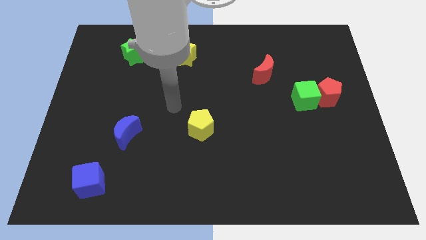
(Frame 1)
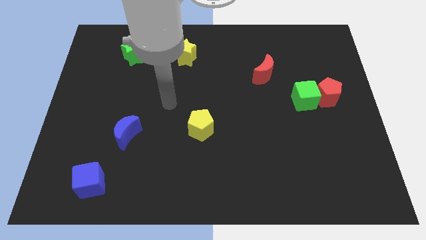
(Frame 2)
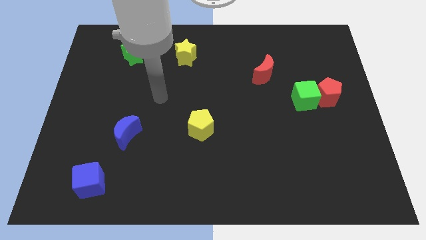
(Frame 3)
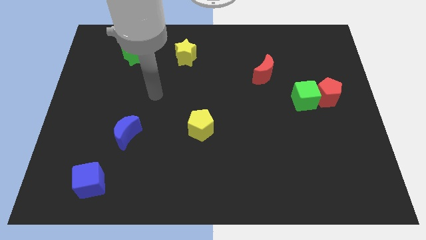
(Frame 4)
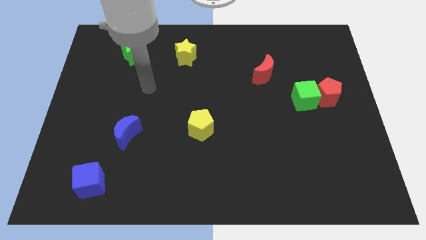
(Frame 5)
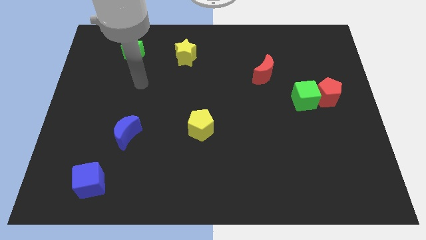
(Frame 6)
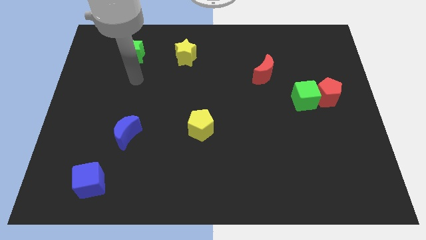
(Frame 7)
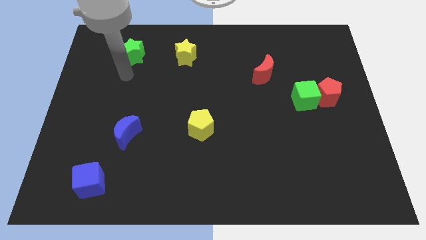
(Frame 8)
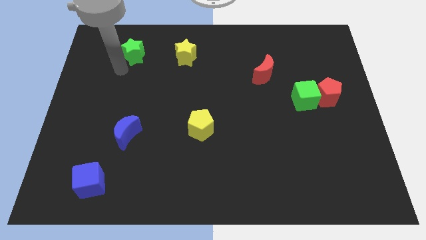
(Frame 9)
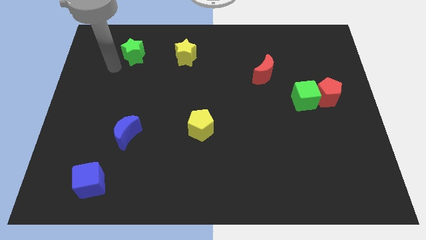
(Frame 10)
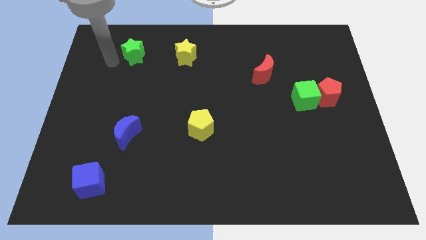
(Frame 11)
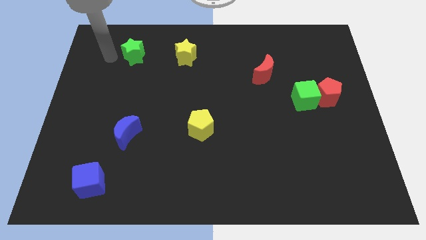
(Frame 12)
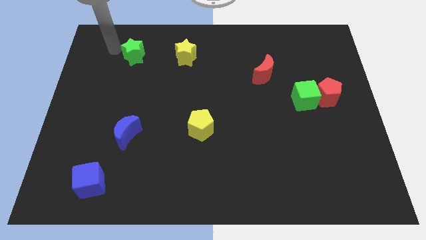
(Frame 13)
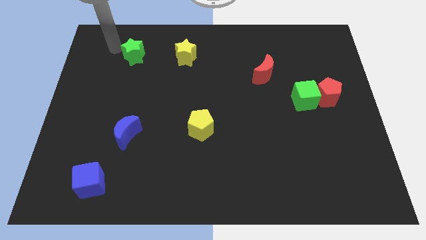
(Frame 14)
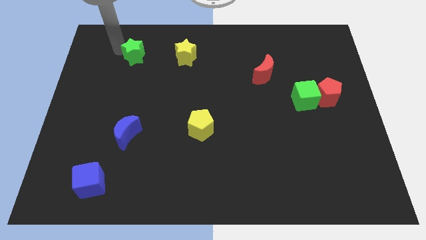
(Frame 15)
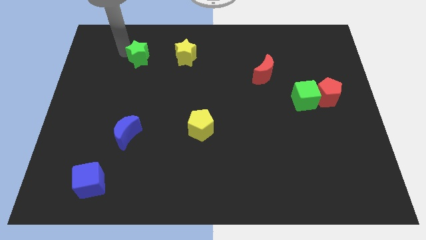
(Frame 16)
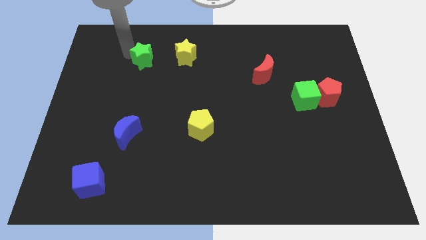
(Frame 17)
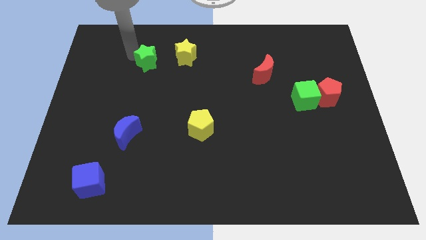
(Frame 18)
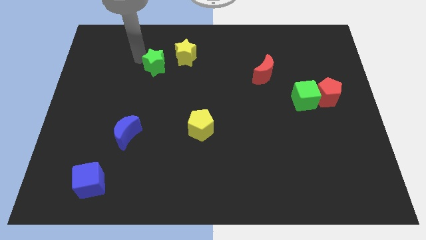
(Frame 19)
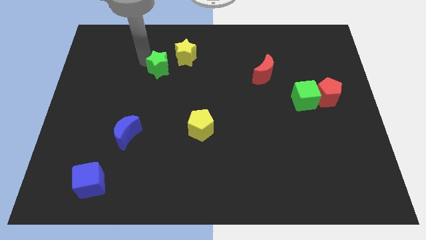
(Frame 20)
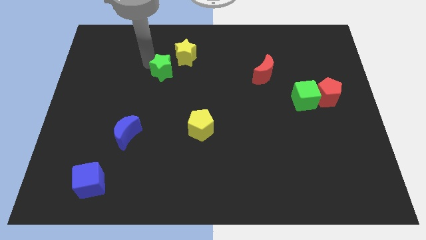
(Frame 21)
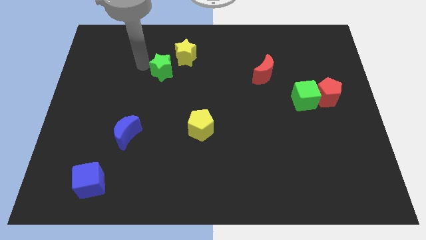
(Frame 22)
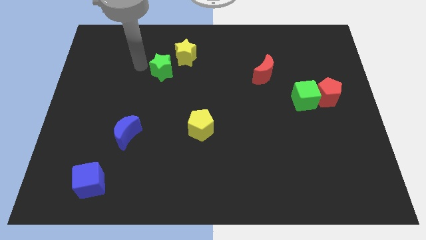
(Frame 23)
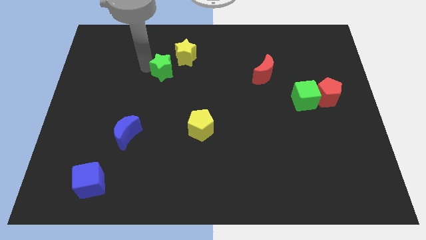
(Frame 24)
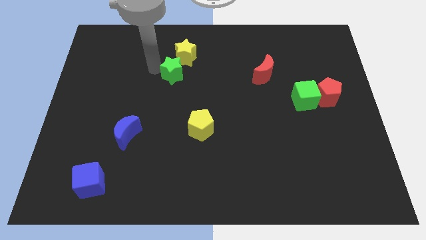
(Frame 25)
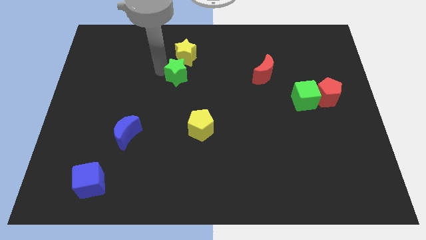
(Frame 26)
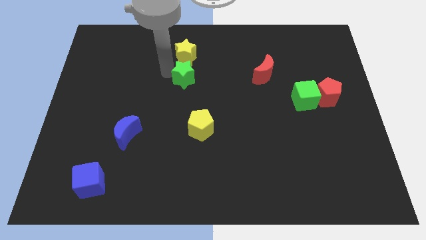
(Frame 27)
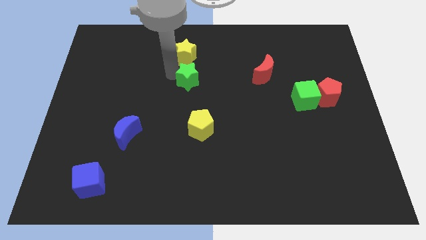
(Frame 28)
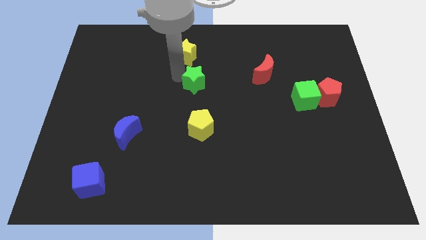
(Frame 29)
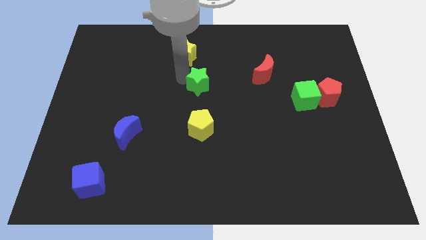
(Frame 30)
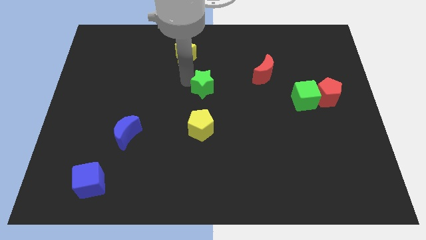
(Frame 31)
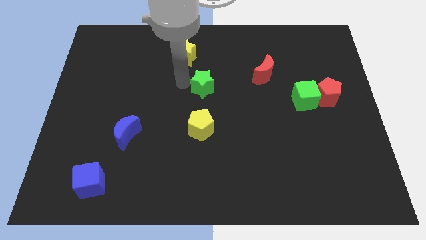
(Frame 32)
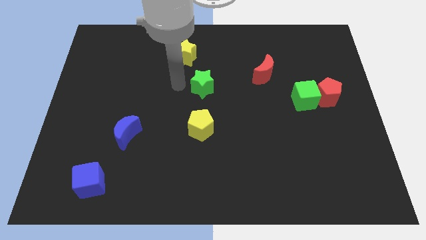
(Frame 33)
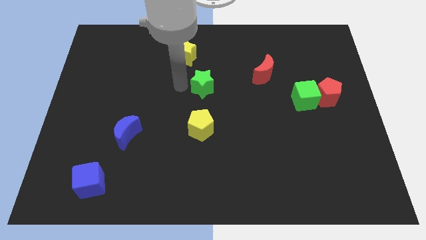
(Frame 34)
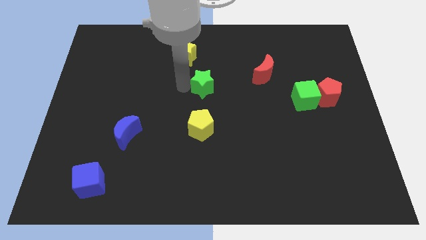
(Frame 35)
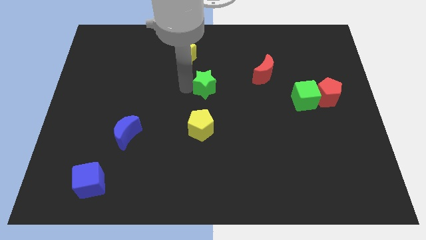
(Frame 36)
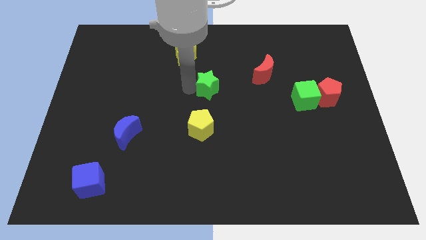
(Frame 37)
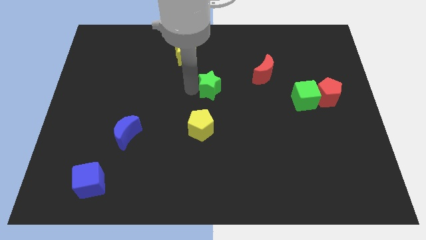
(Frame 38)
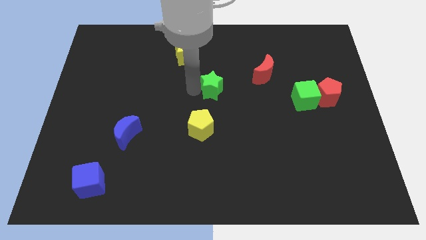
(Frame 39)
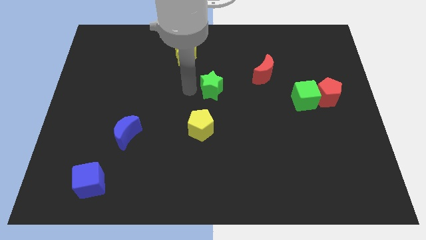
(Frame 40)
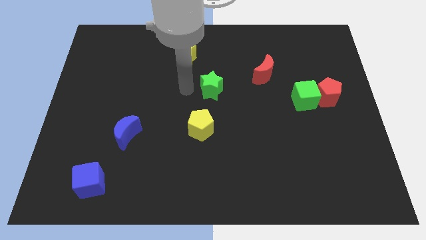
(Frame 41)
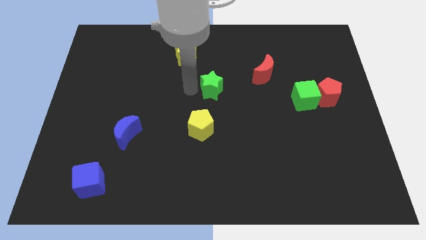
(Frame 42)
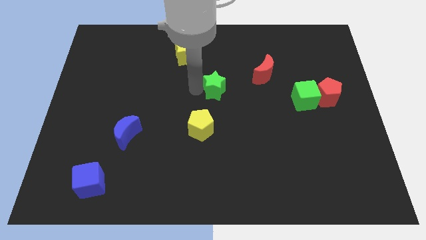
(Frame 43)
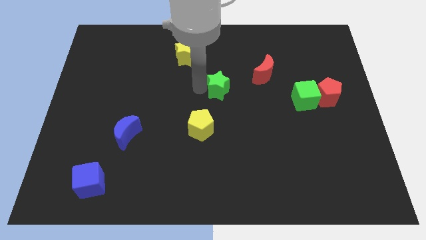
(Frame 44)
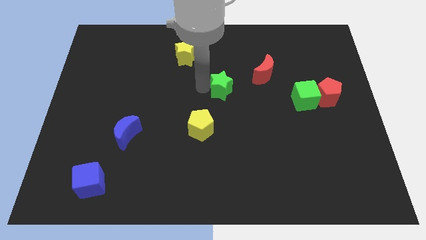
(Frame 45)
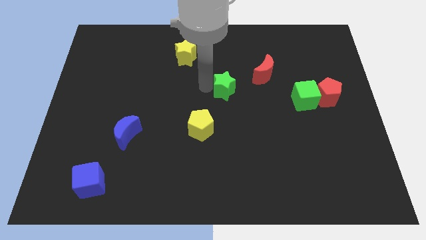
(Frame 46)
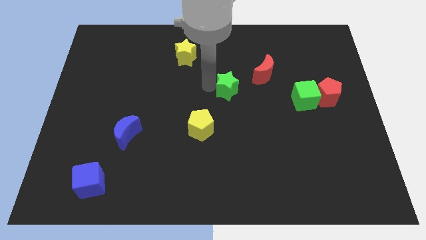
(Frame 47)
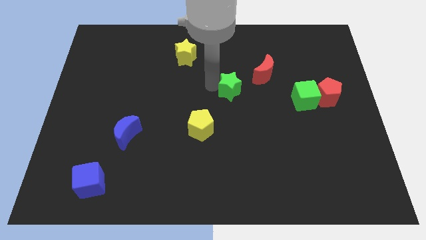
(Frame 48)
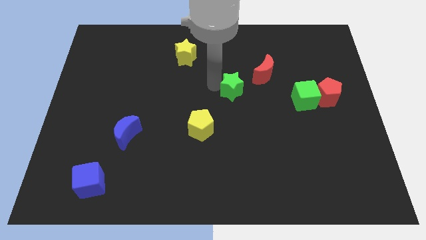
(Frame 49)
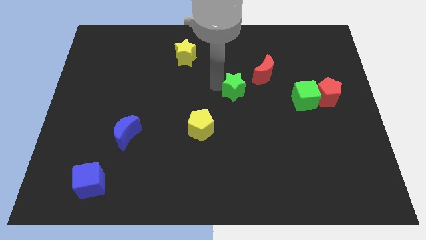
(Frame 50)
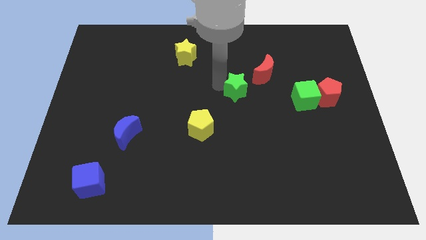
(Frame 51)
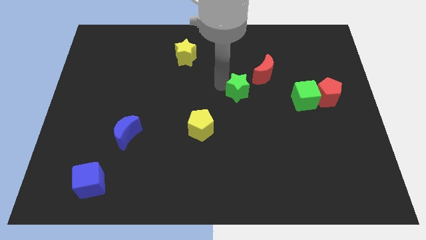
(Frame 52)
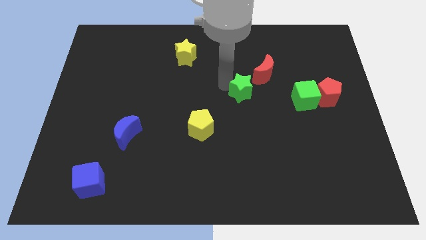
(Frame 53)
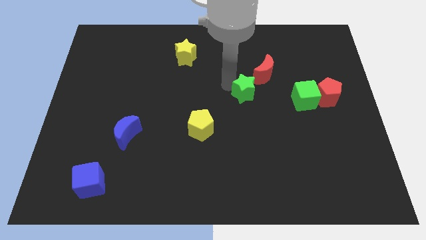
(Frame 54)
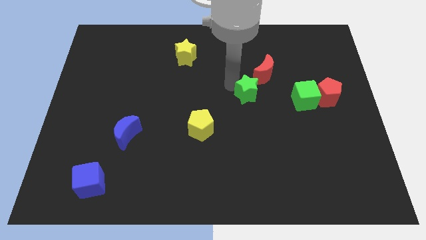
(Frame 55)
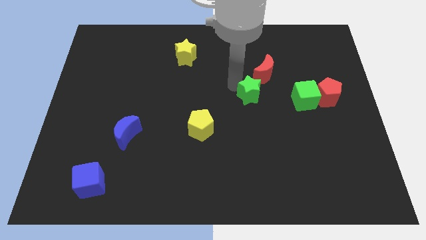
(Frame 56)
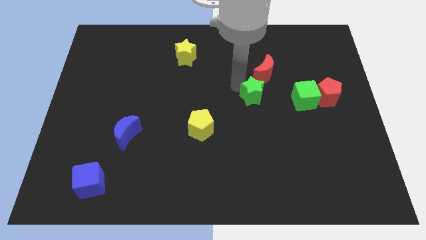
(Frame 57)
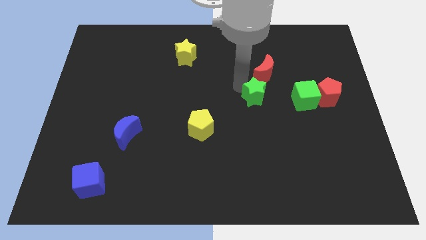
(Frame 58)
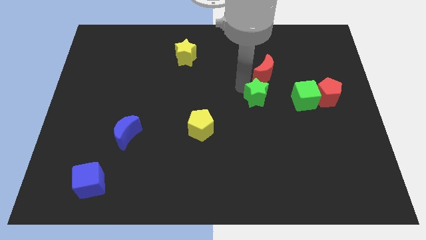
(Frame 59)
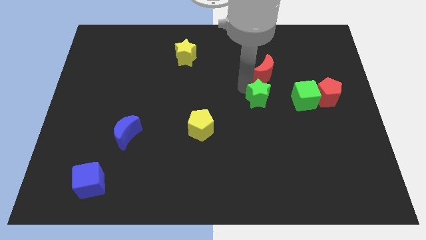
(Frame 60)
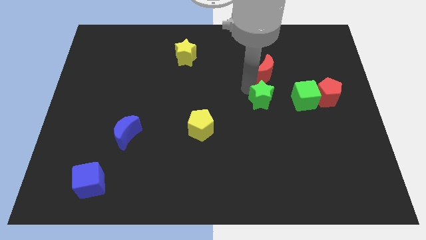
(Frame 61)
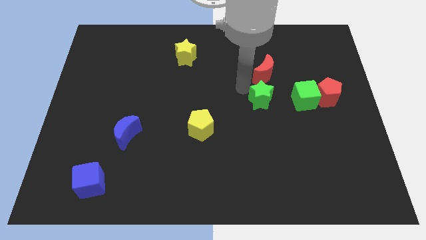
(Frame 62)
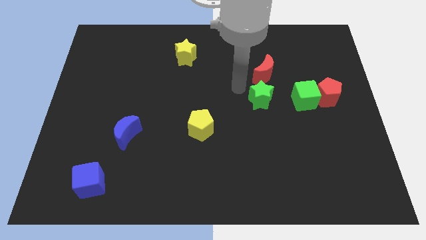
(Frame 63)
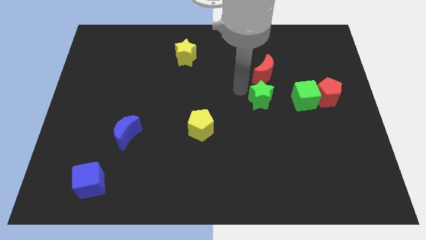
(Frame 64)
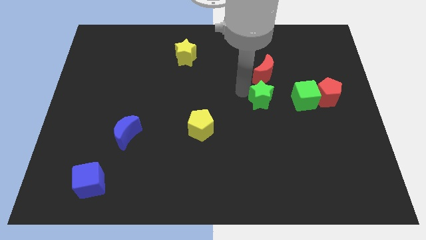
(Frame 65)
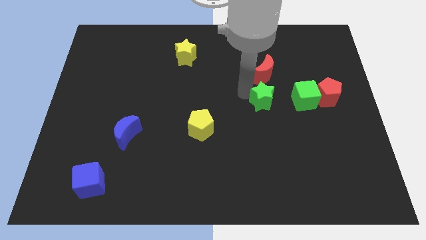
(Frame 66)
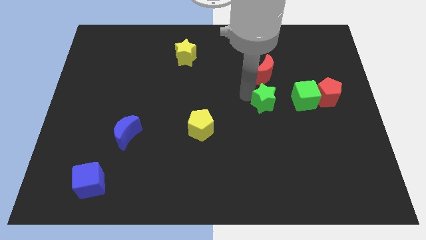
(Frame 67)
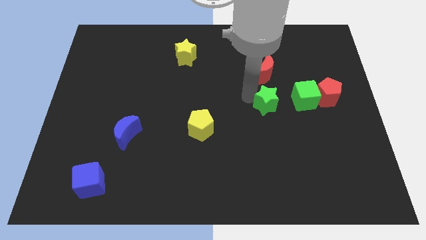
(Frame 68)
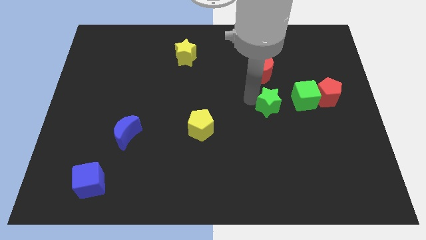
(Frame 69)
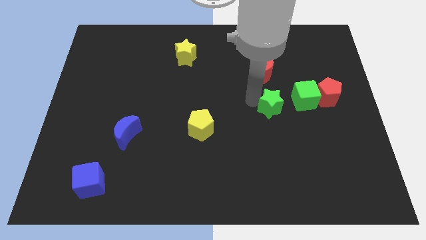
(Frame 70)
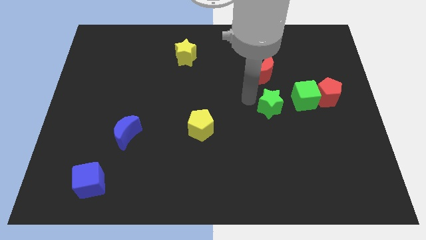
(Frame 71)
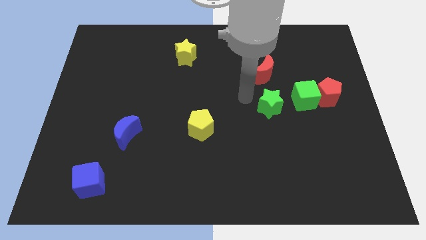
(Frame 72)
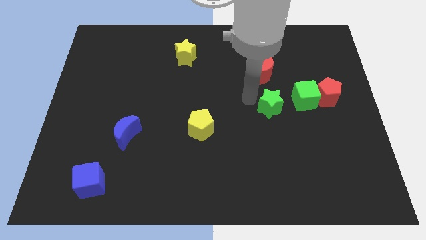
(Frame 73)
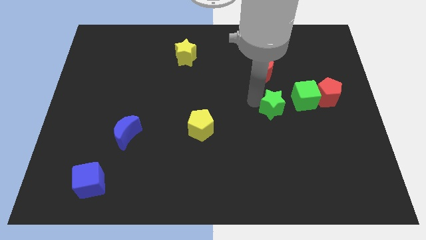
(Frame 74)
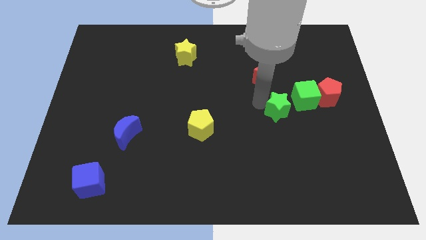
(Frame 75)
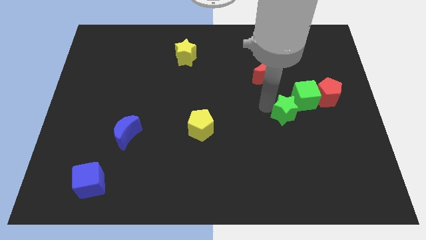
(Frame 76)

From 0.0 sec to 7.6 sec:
push the green star diagonally down and to the left of the red pentagon
